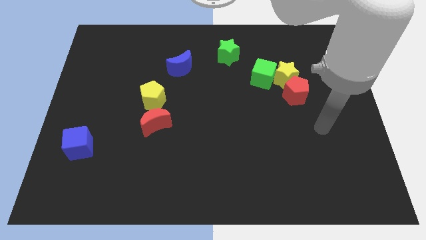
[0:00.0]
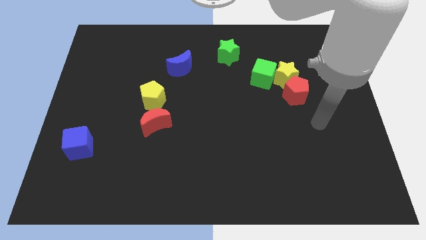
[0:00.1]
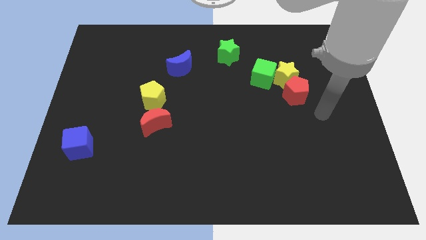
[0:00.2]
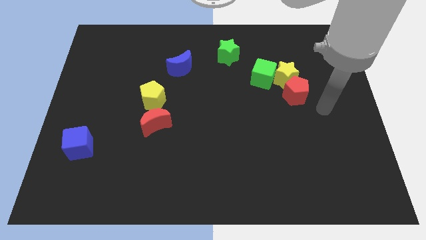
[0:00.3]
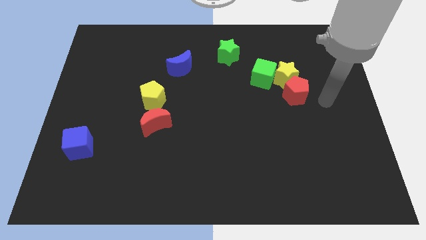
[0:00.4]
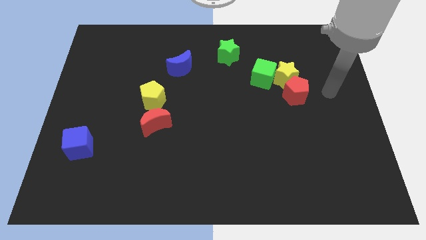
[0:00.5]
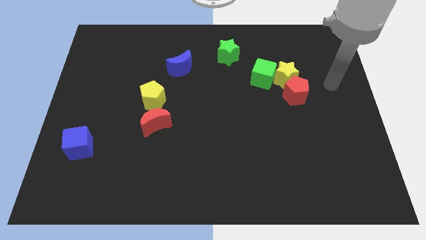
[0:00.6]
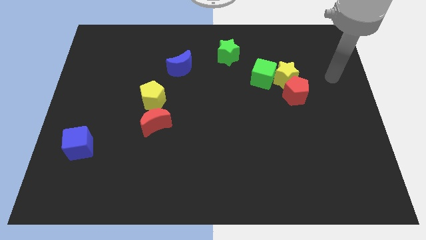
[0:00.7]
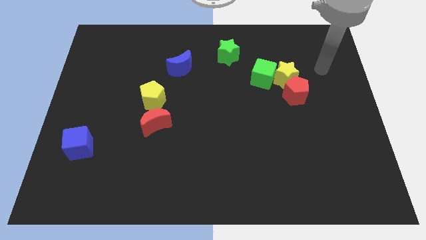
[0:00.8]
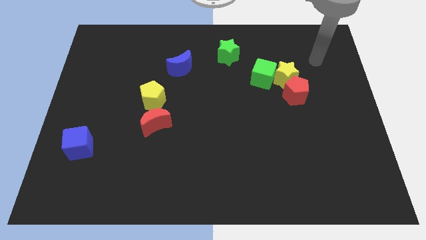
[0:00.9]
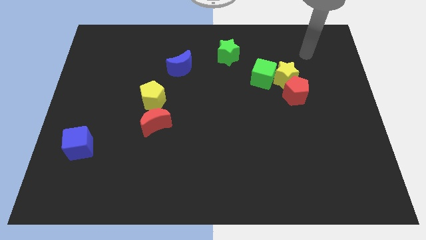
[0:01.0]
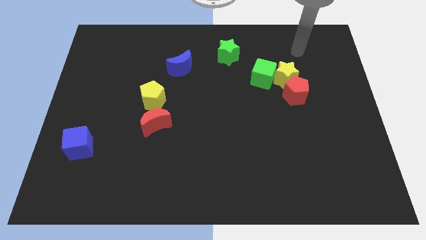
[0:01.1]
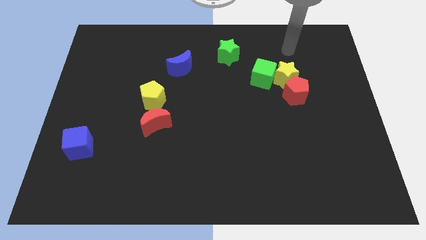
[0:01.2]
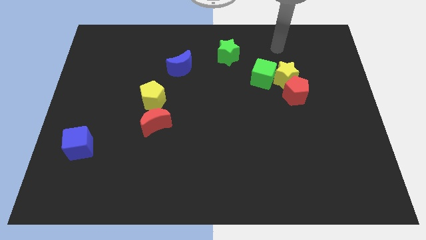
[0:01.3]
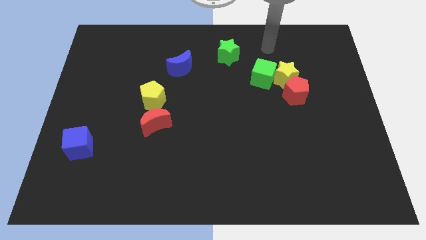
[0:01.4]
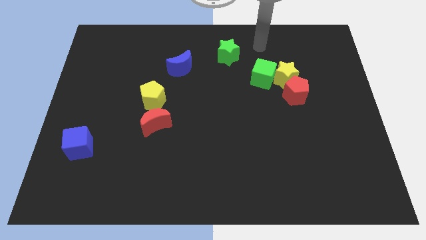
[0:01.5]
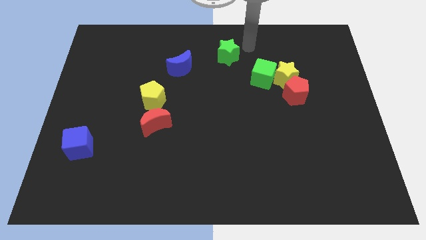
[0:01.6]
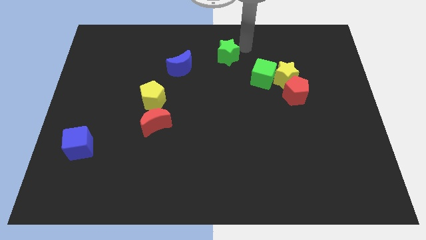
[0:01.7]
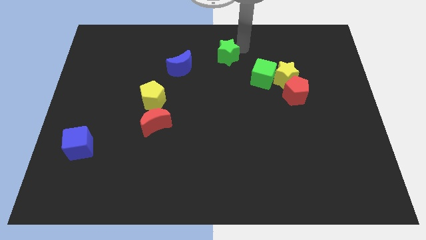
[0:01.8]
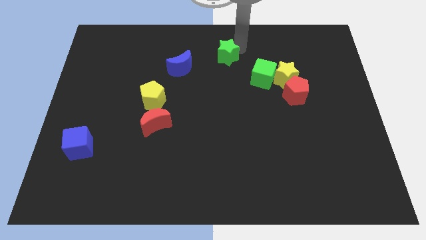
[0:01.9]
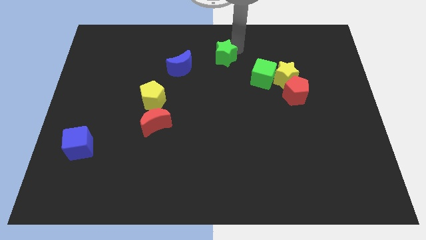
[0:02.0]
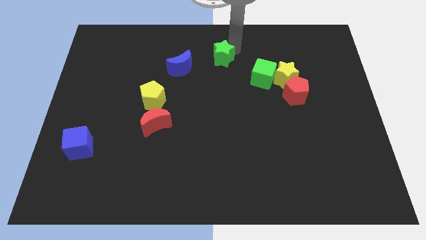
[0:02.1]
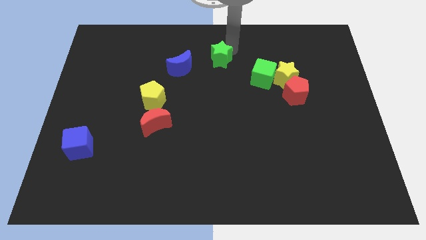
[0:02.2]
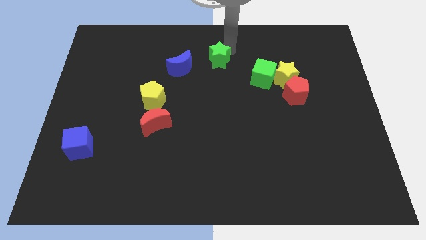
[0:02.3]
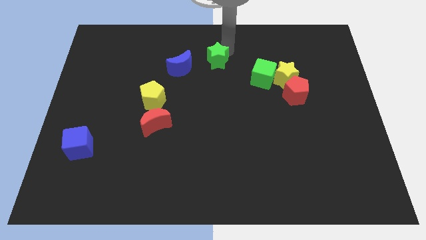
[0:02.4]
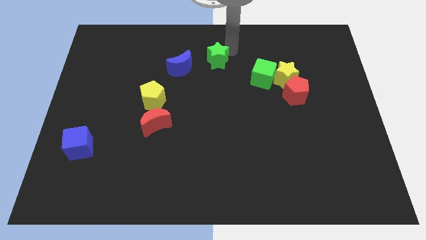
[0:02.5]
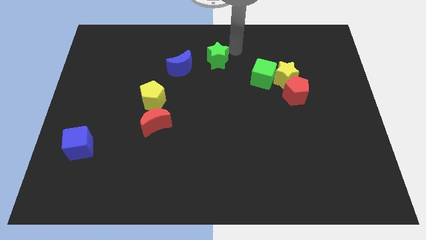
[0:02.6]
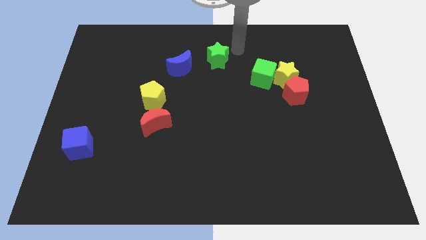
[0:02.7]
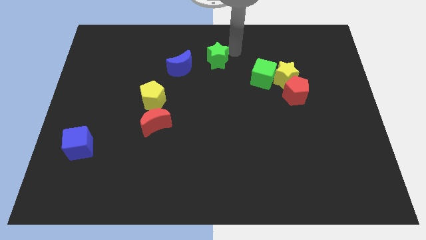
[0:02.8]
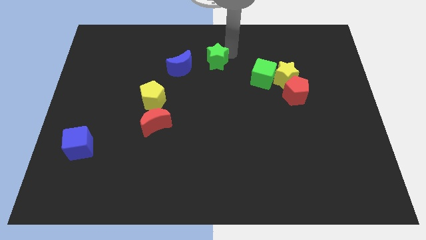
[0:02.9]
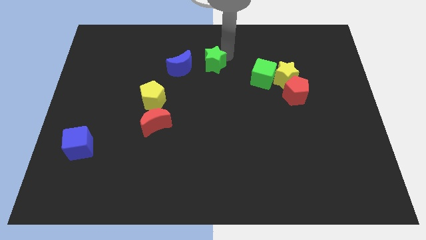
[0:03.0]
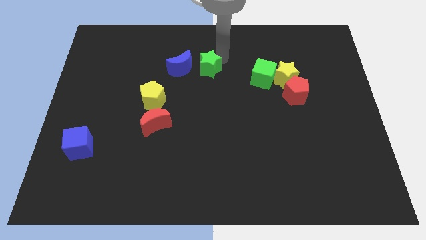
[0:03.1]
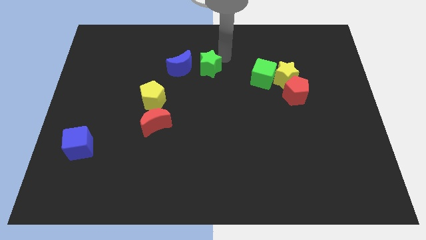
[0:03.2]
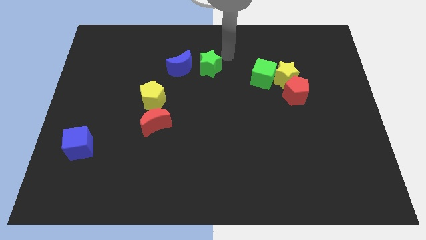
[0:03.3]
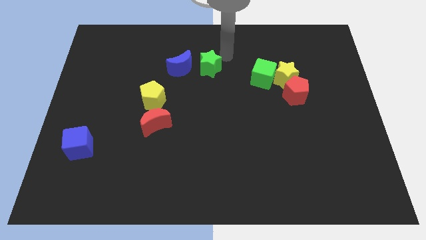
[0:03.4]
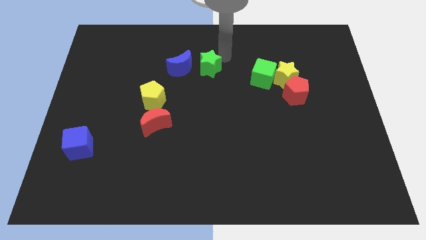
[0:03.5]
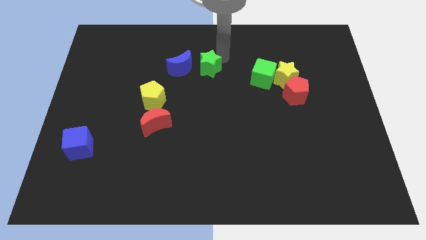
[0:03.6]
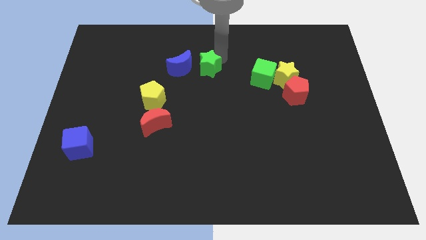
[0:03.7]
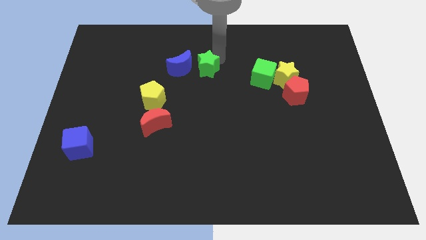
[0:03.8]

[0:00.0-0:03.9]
slightly slide the green star downwards and to the left

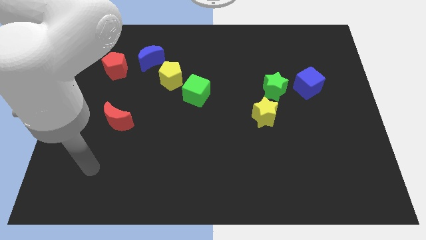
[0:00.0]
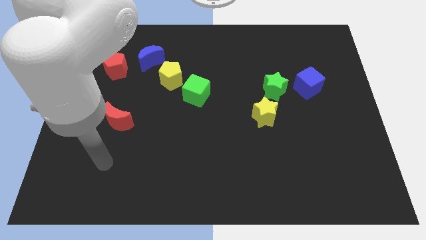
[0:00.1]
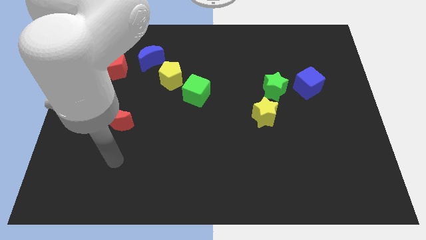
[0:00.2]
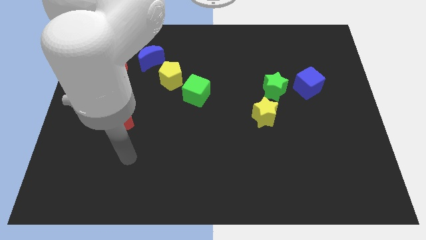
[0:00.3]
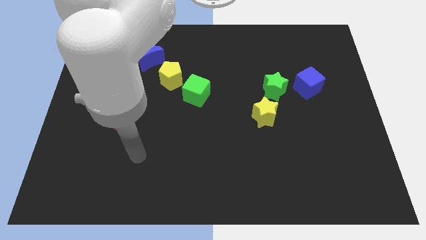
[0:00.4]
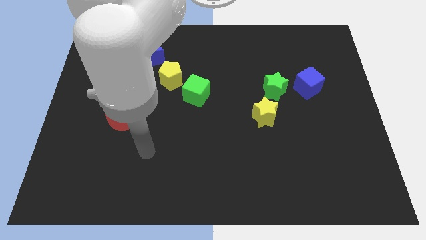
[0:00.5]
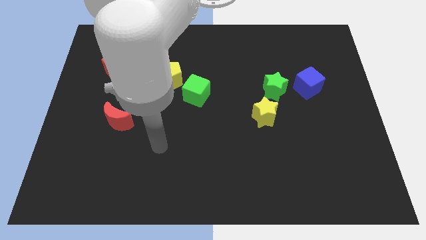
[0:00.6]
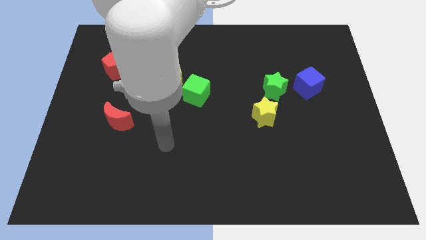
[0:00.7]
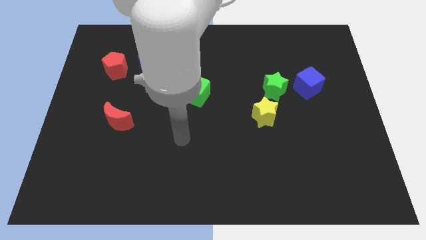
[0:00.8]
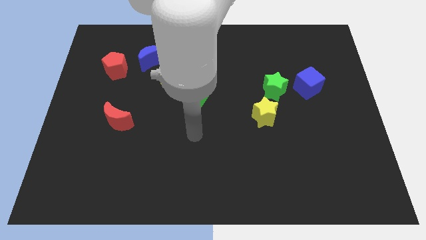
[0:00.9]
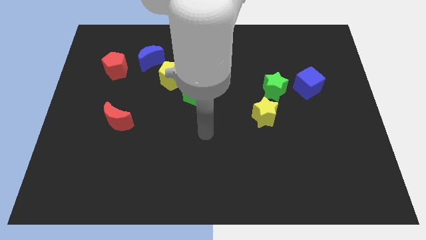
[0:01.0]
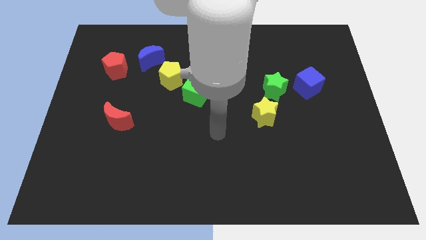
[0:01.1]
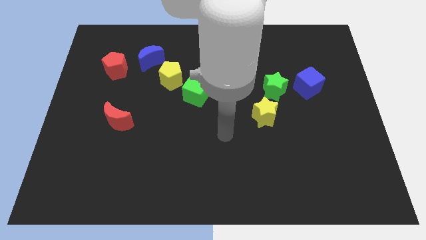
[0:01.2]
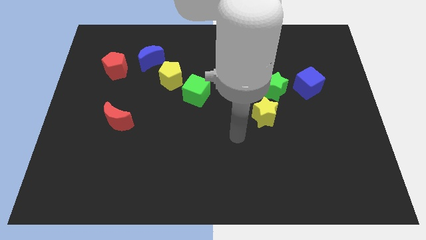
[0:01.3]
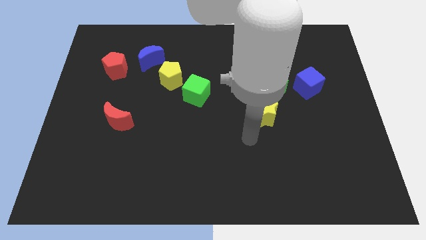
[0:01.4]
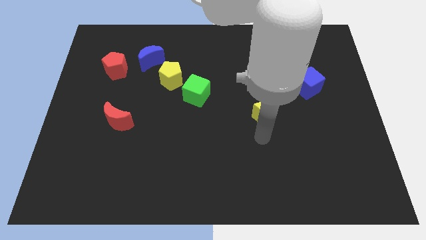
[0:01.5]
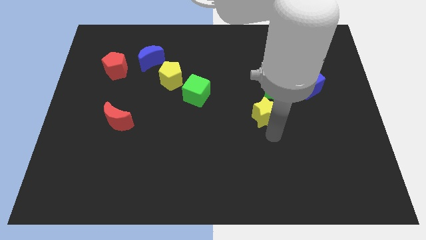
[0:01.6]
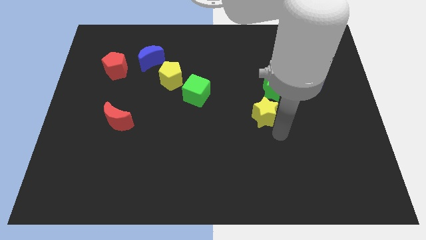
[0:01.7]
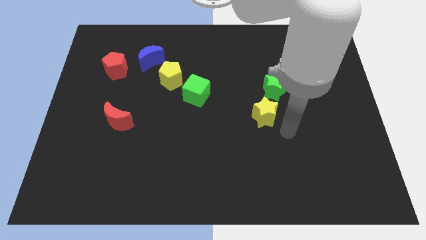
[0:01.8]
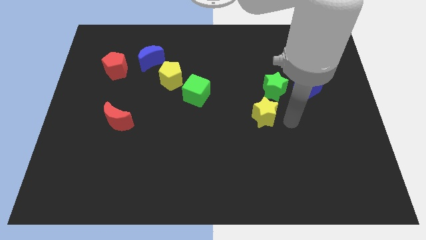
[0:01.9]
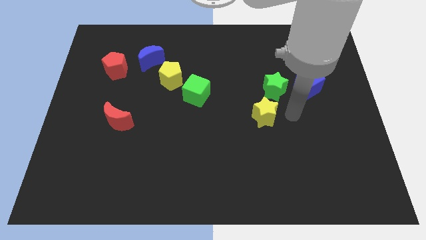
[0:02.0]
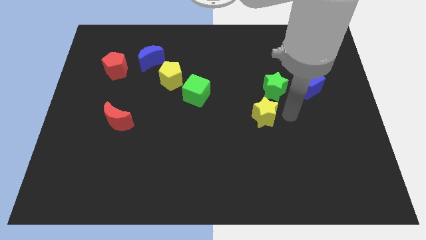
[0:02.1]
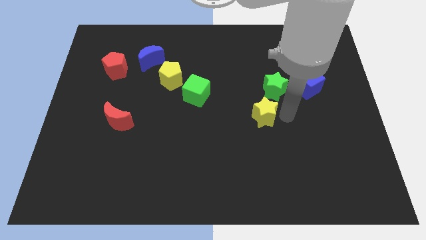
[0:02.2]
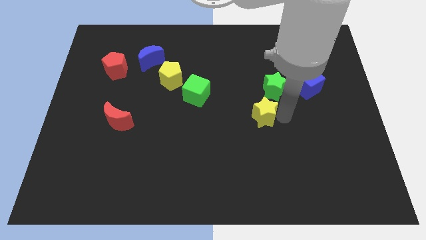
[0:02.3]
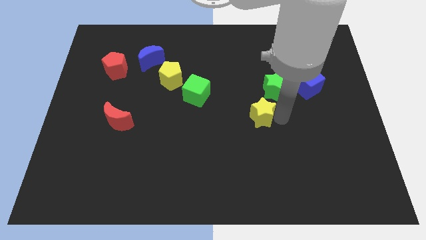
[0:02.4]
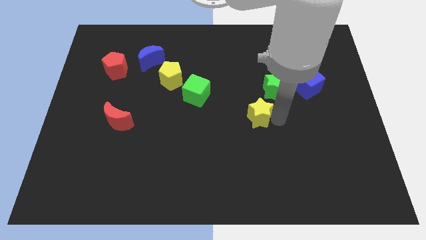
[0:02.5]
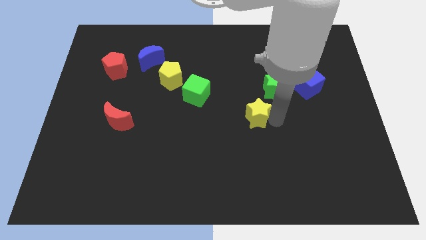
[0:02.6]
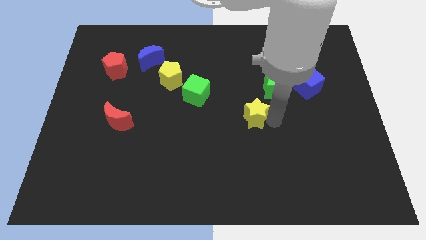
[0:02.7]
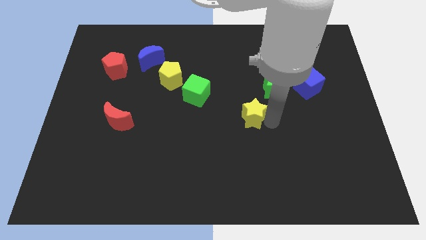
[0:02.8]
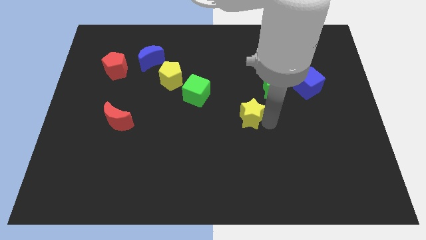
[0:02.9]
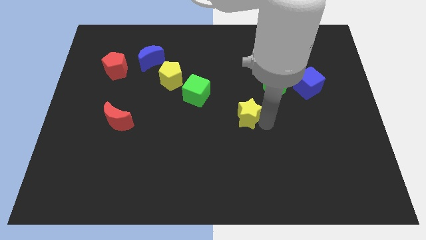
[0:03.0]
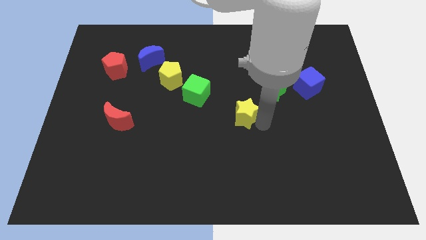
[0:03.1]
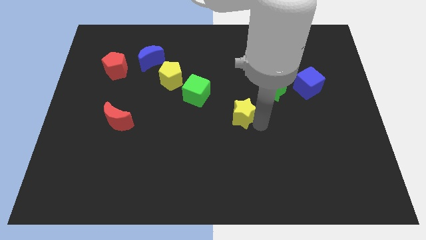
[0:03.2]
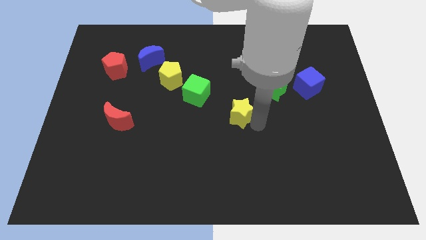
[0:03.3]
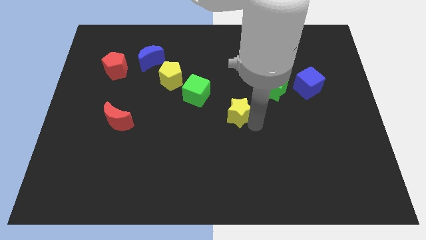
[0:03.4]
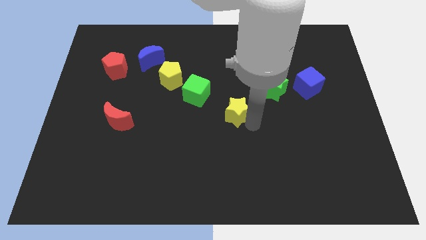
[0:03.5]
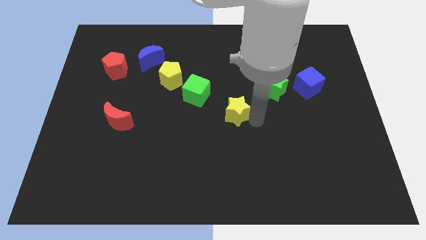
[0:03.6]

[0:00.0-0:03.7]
slightly slide the yellow star left

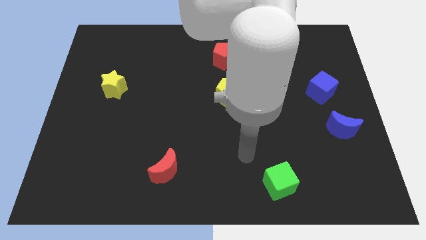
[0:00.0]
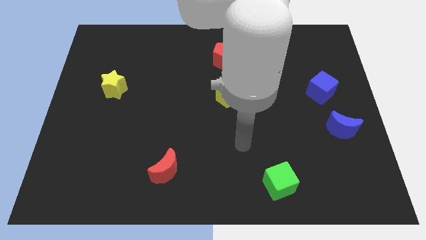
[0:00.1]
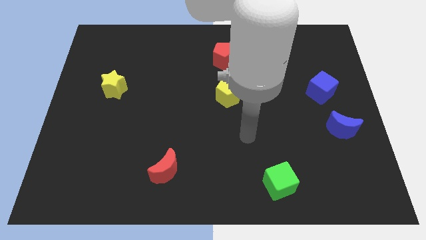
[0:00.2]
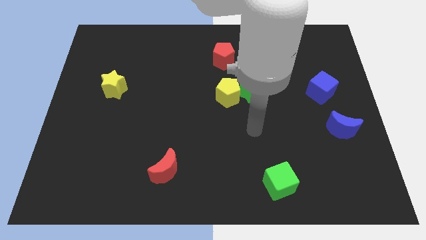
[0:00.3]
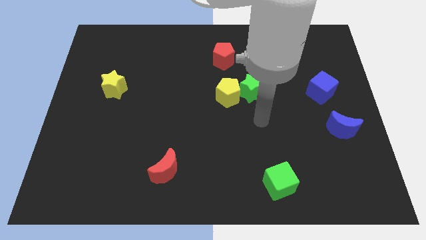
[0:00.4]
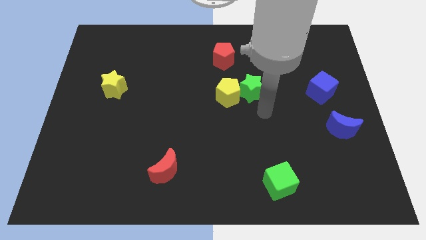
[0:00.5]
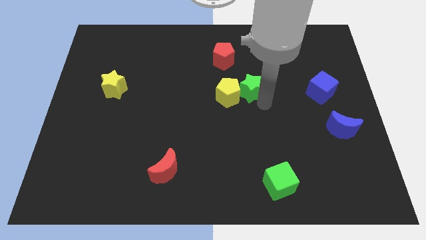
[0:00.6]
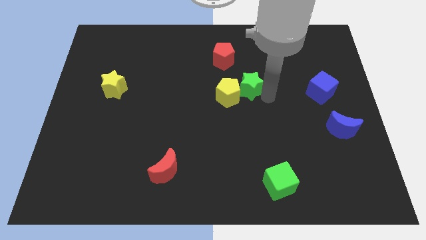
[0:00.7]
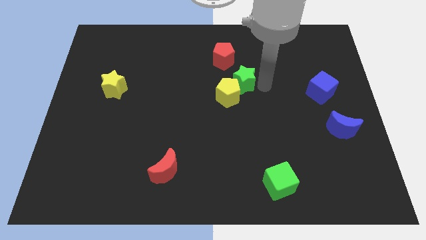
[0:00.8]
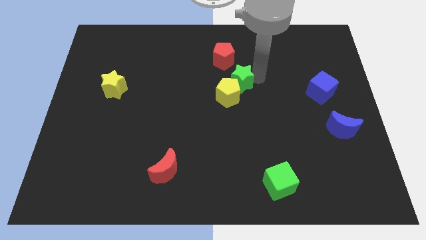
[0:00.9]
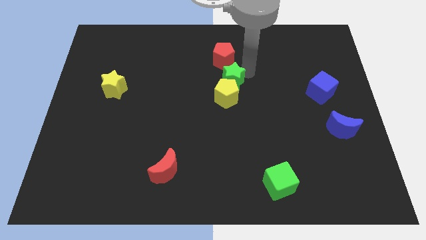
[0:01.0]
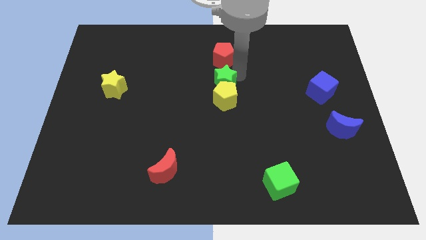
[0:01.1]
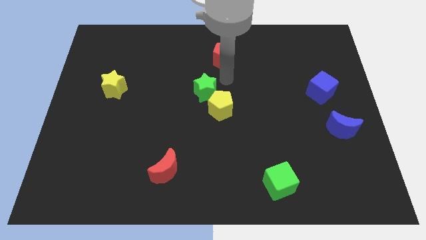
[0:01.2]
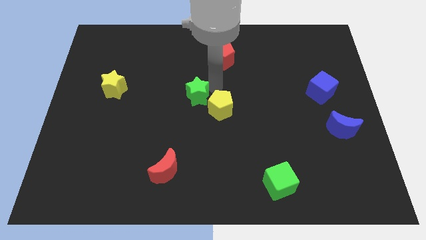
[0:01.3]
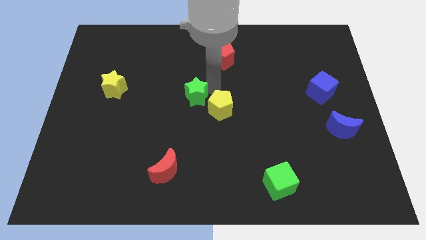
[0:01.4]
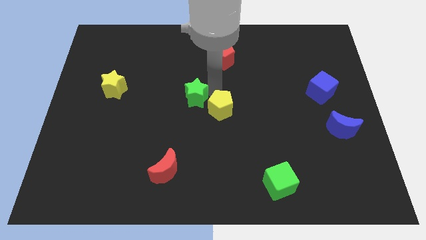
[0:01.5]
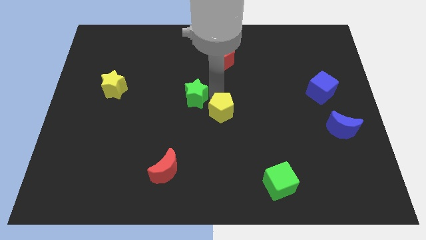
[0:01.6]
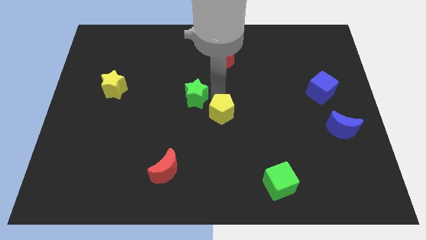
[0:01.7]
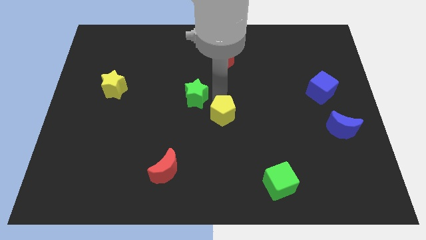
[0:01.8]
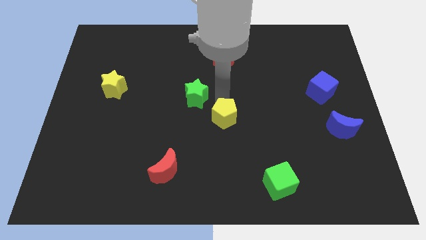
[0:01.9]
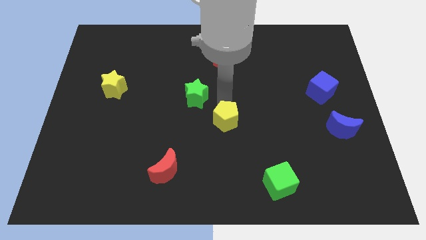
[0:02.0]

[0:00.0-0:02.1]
push the yellow pentagon somewhat downwards
